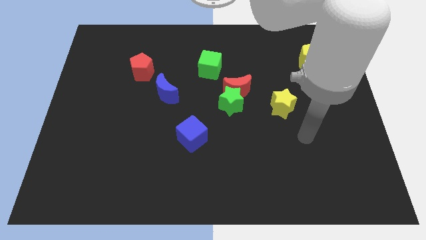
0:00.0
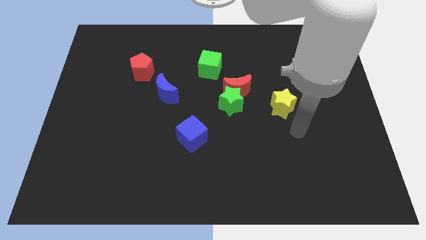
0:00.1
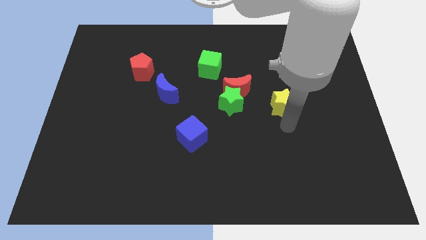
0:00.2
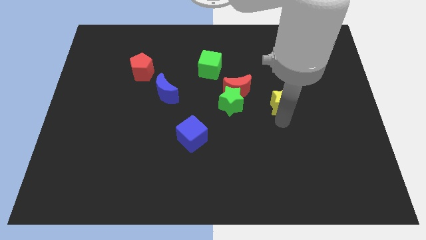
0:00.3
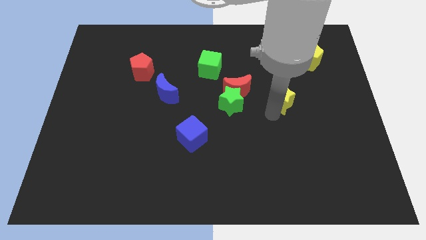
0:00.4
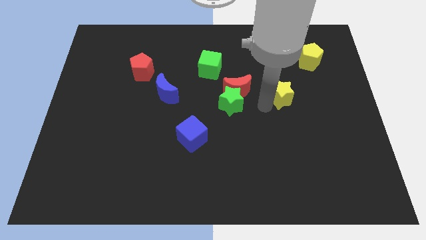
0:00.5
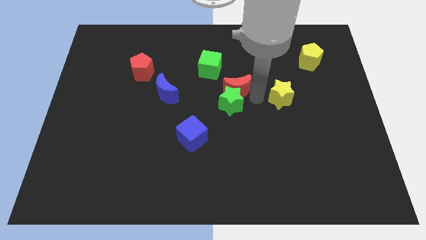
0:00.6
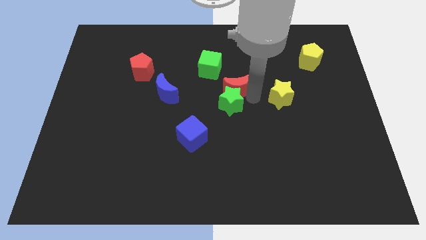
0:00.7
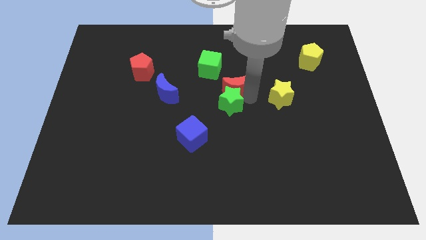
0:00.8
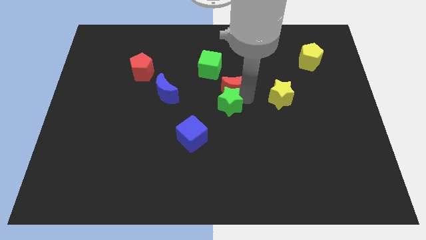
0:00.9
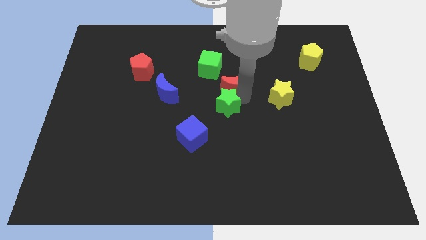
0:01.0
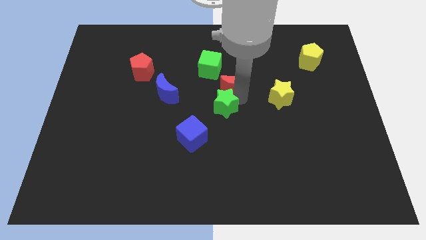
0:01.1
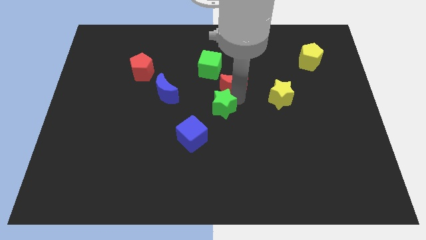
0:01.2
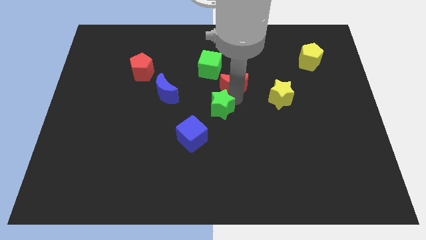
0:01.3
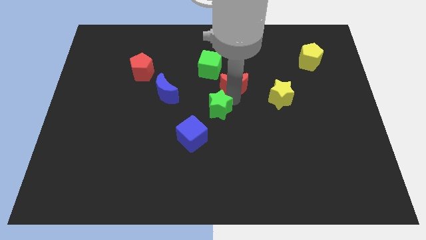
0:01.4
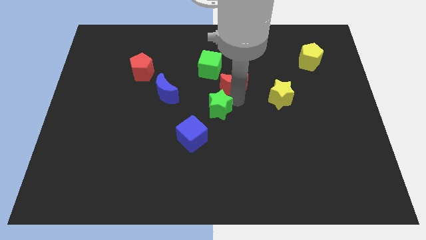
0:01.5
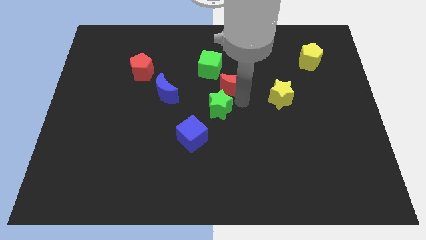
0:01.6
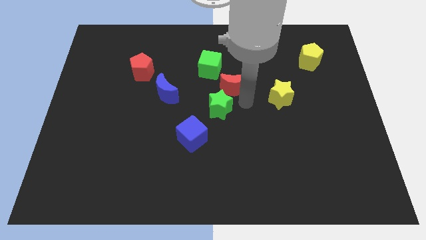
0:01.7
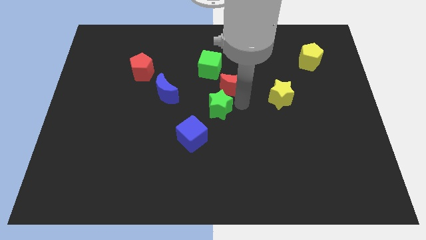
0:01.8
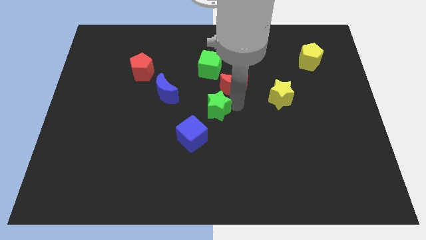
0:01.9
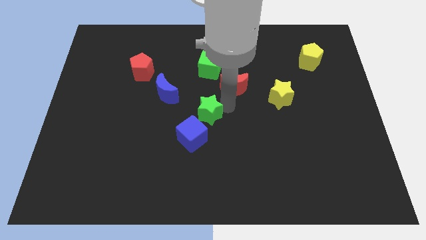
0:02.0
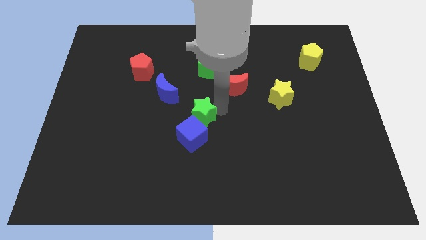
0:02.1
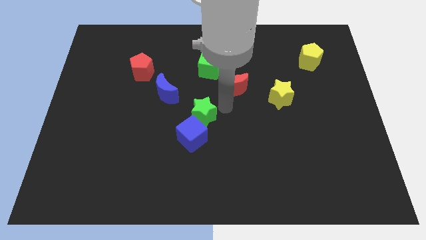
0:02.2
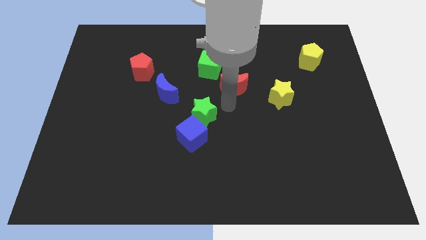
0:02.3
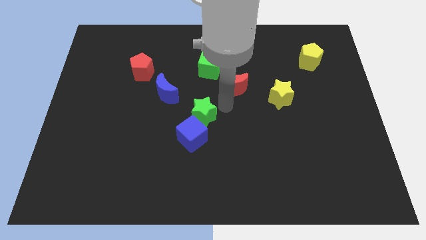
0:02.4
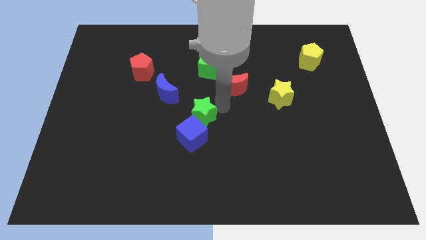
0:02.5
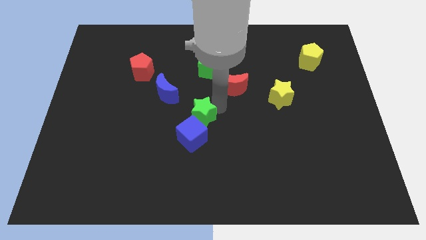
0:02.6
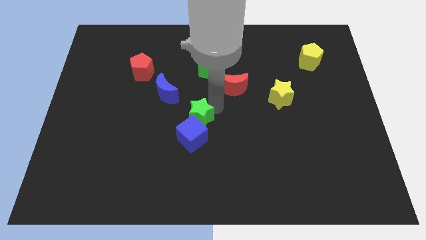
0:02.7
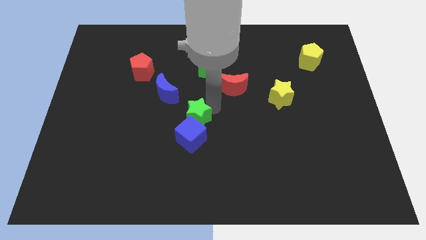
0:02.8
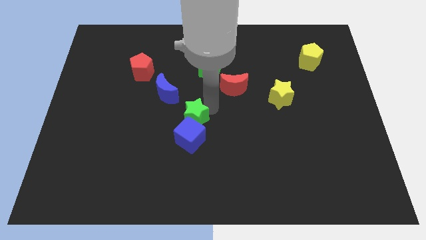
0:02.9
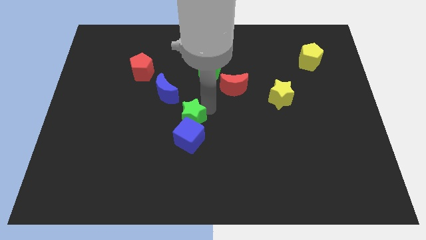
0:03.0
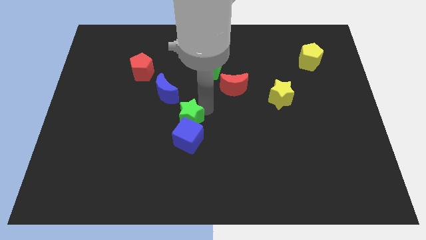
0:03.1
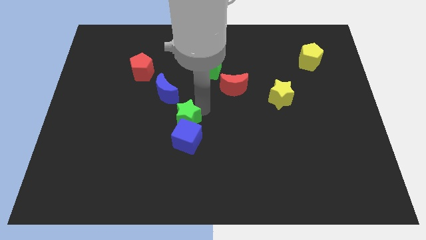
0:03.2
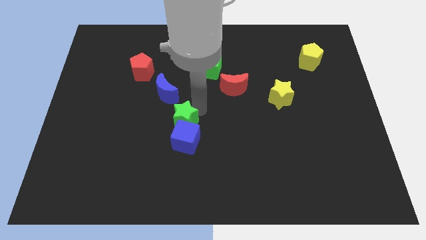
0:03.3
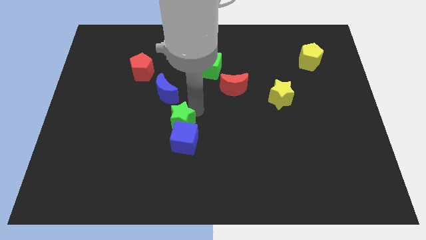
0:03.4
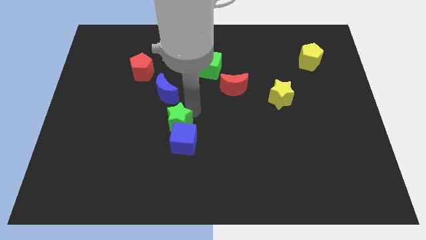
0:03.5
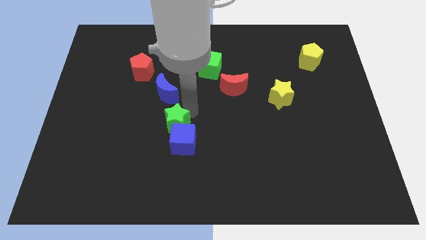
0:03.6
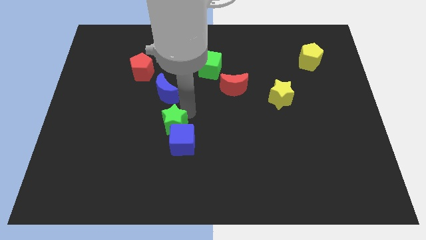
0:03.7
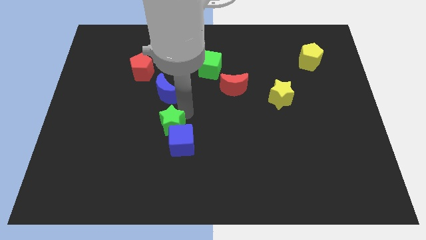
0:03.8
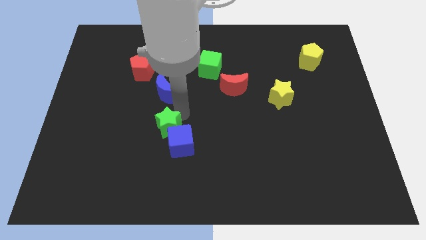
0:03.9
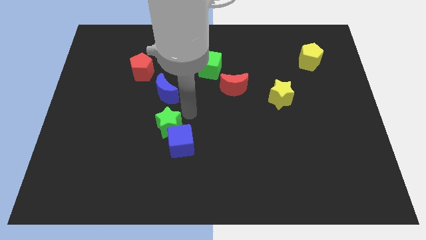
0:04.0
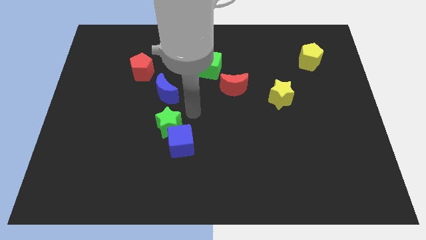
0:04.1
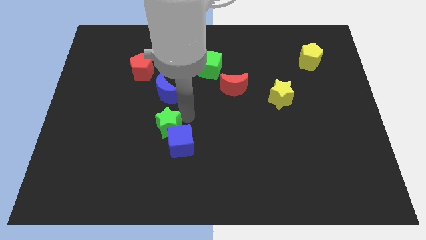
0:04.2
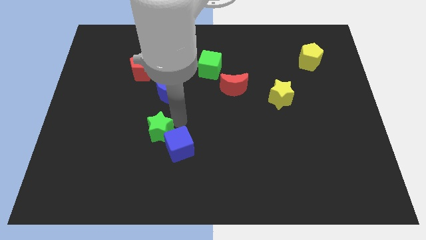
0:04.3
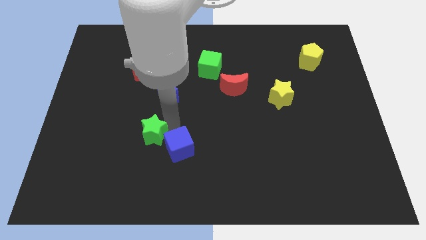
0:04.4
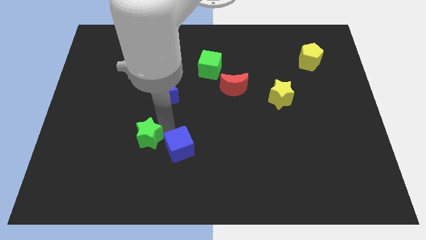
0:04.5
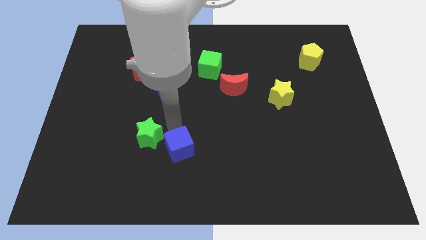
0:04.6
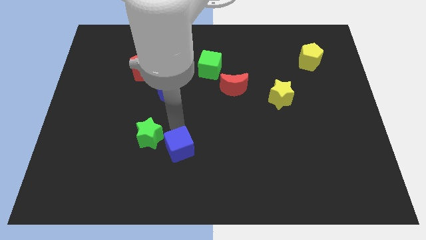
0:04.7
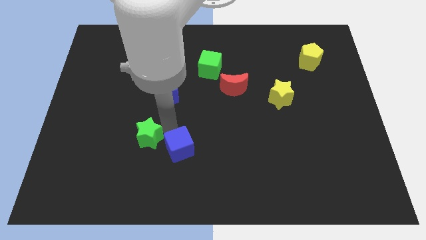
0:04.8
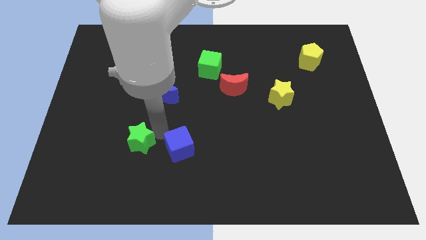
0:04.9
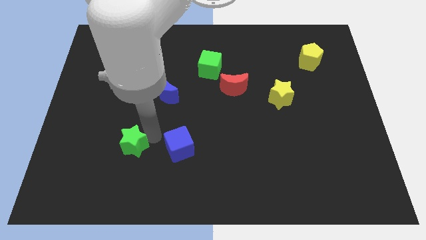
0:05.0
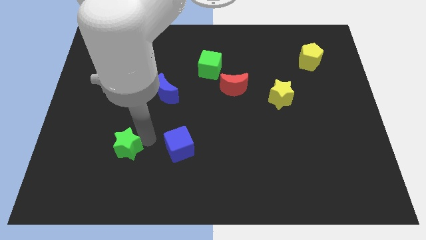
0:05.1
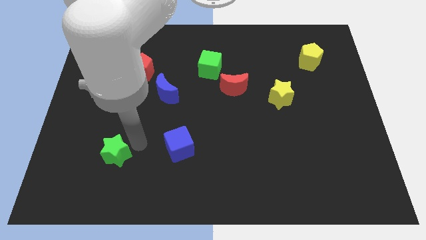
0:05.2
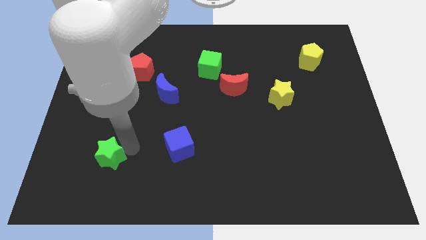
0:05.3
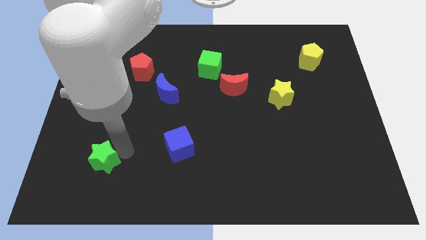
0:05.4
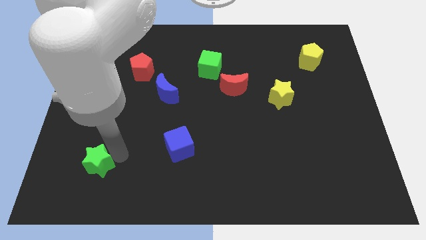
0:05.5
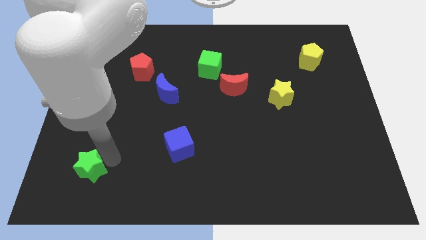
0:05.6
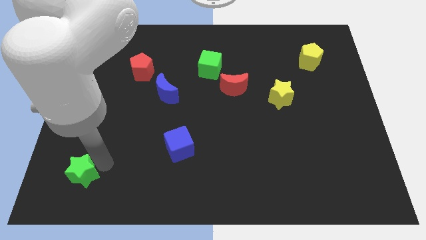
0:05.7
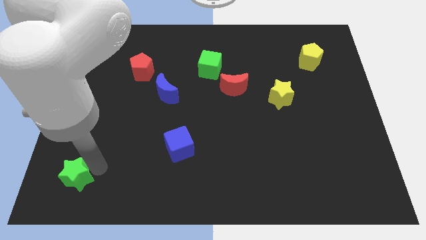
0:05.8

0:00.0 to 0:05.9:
put the green star to the lower left corner
